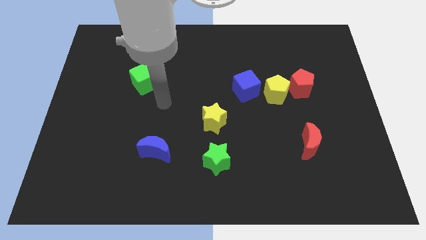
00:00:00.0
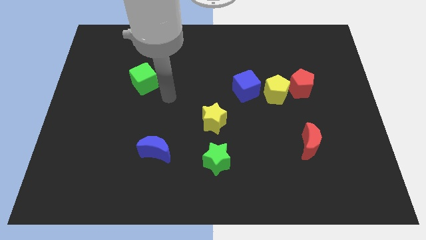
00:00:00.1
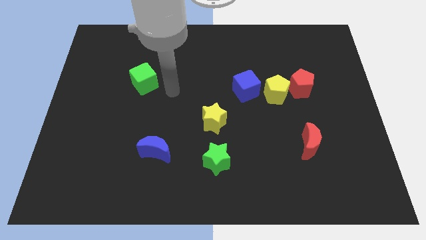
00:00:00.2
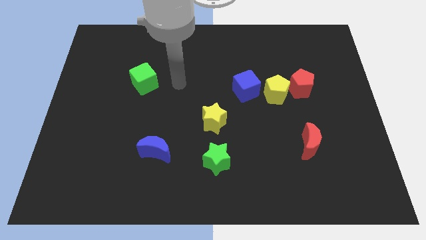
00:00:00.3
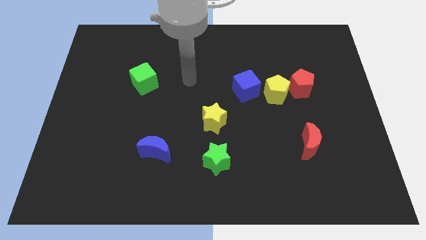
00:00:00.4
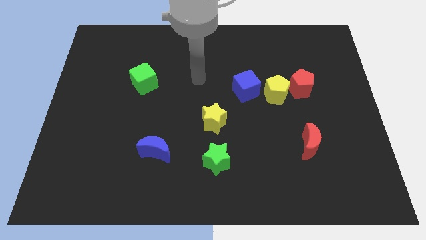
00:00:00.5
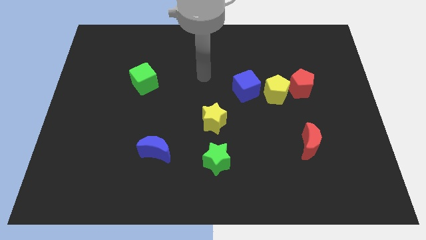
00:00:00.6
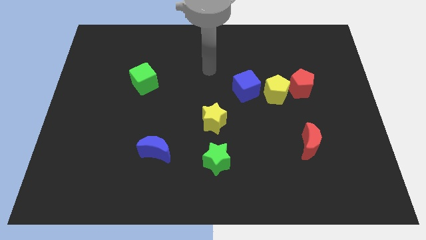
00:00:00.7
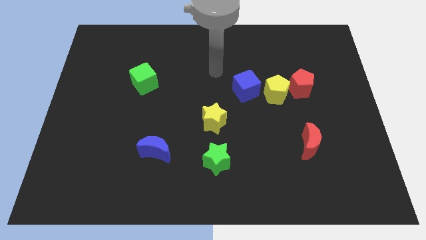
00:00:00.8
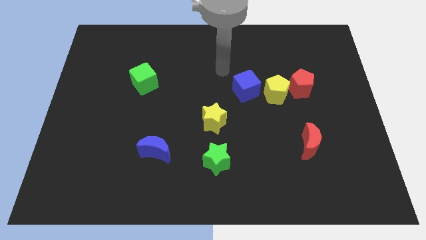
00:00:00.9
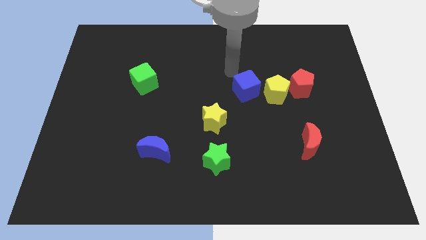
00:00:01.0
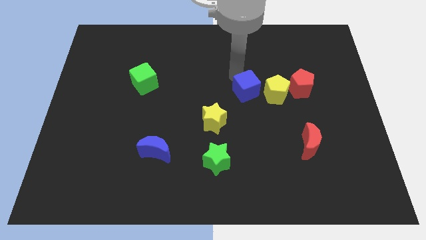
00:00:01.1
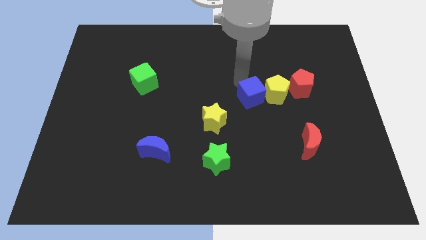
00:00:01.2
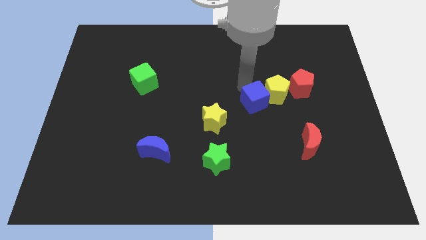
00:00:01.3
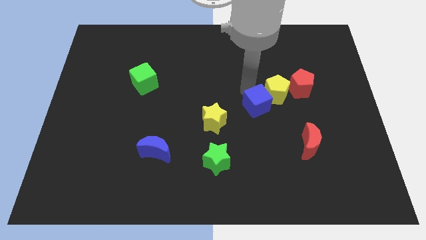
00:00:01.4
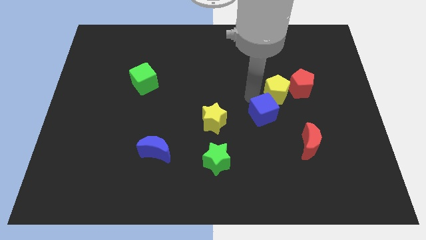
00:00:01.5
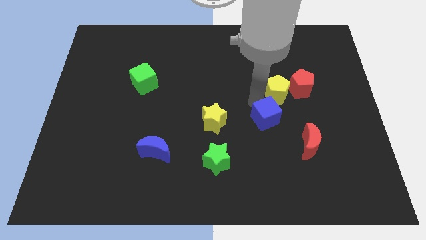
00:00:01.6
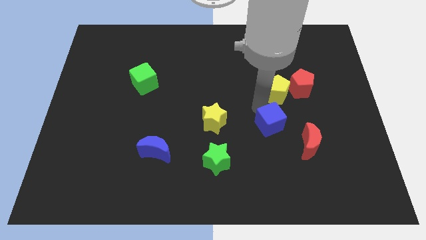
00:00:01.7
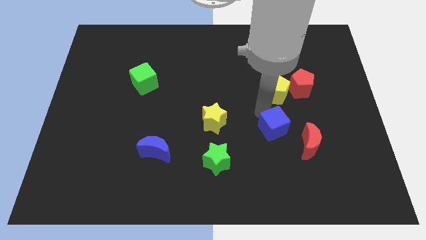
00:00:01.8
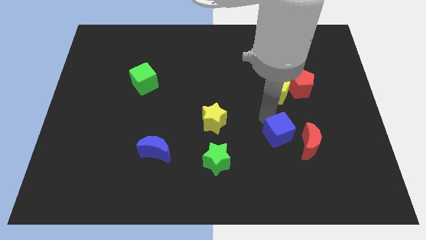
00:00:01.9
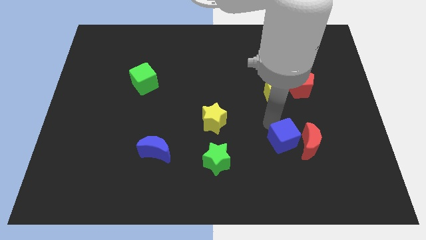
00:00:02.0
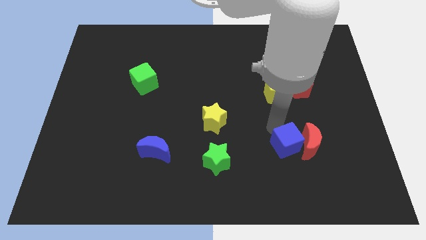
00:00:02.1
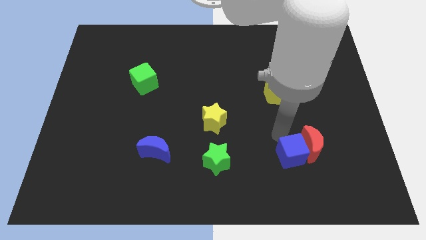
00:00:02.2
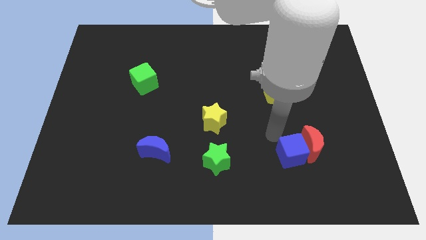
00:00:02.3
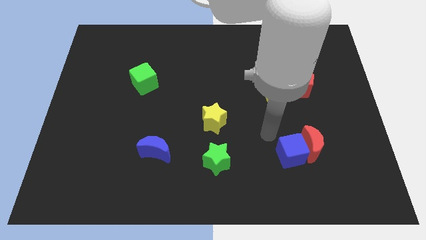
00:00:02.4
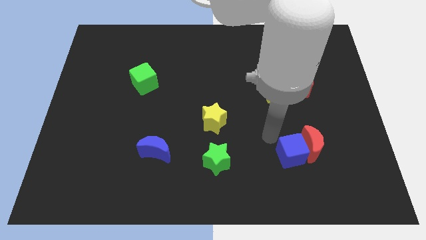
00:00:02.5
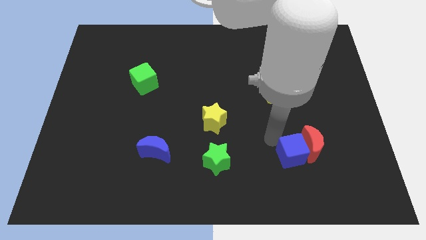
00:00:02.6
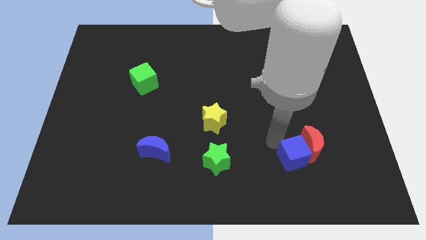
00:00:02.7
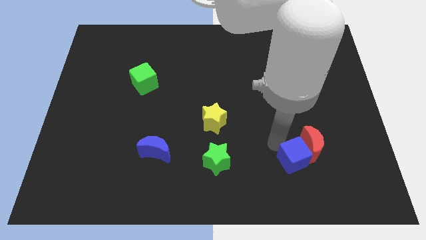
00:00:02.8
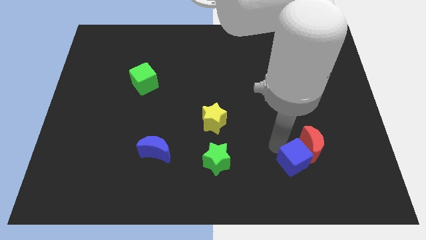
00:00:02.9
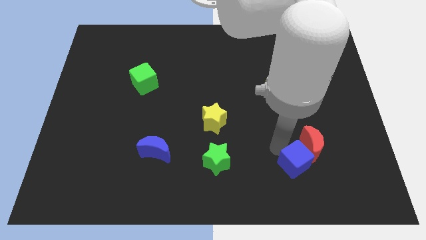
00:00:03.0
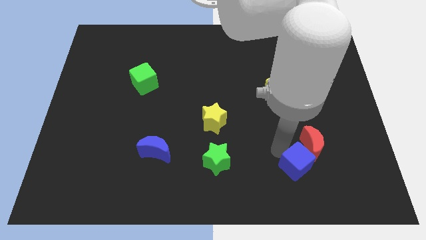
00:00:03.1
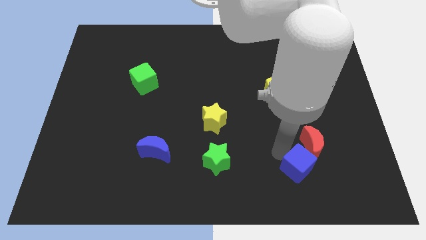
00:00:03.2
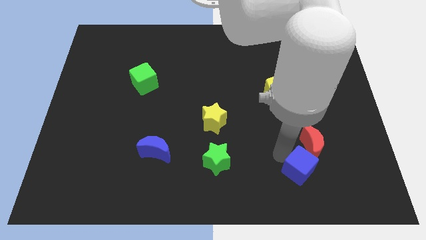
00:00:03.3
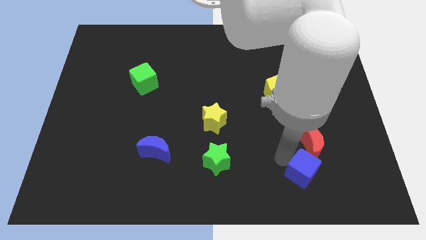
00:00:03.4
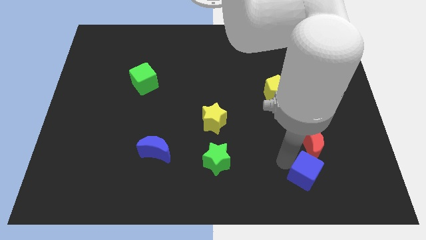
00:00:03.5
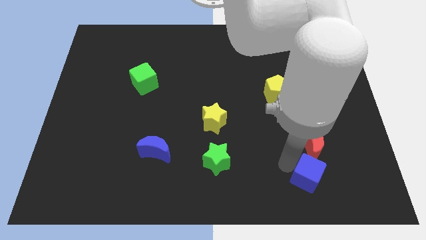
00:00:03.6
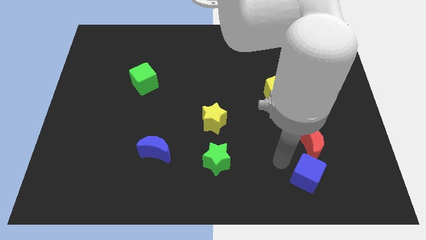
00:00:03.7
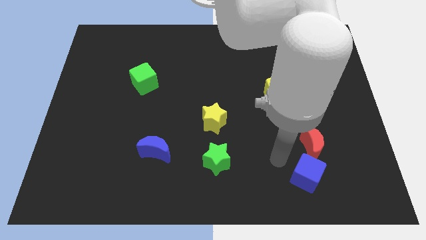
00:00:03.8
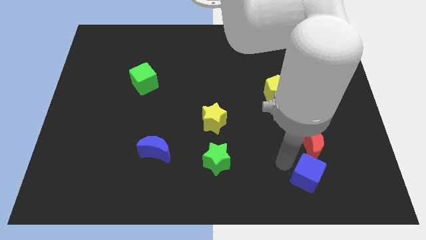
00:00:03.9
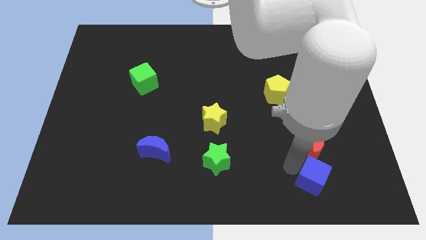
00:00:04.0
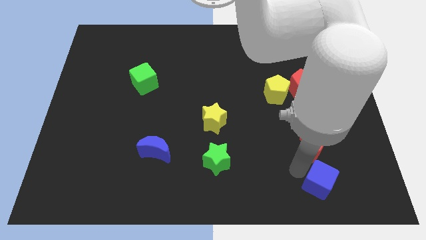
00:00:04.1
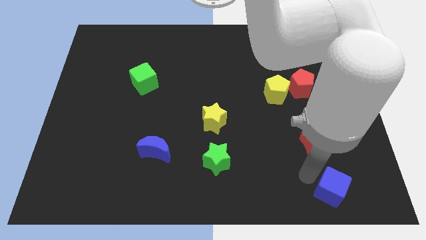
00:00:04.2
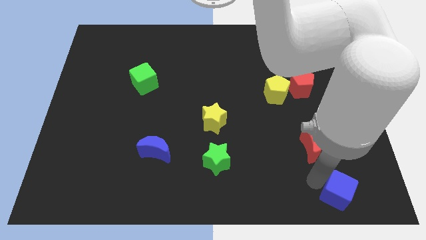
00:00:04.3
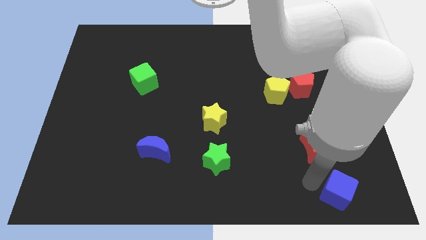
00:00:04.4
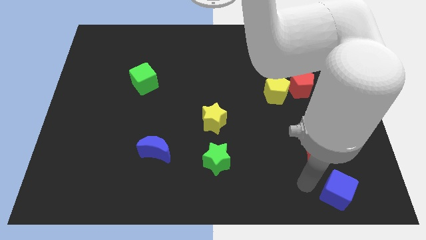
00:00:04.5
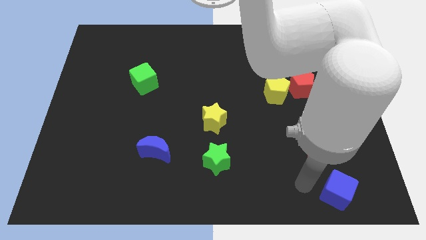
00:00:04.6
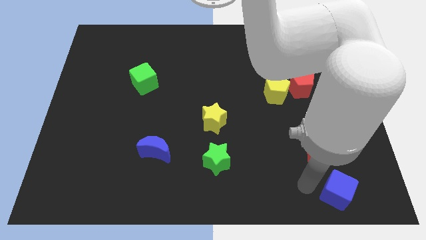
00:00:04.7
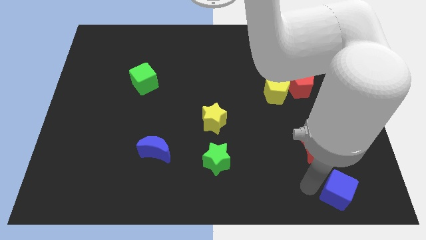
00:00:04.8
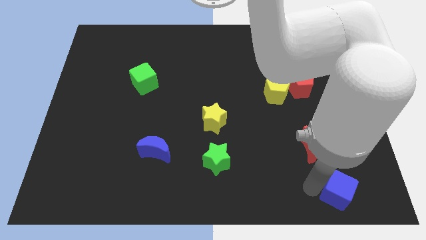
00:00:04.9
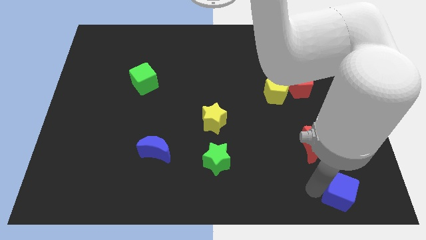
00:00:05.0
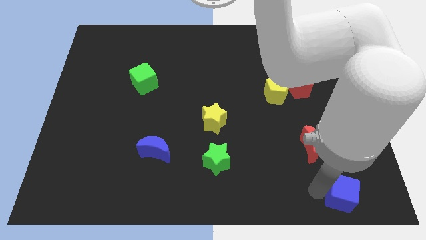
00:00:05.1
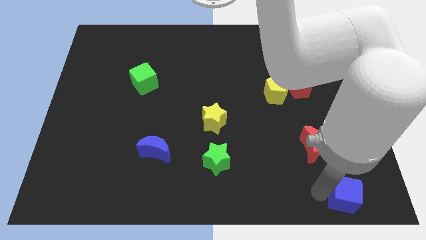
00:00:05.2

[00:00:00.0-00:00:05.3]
put the blue cube to the bottom right of the board

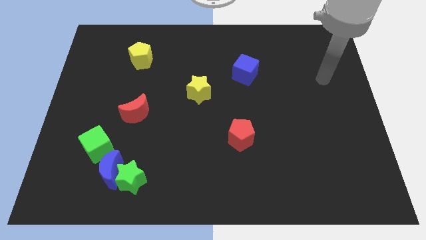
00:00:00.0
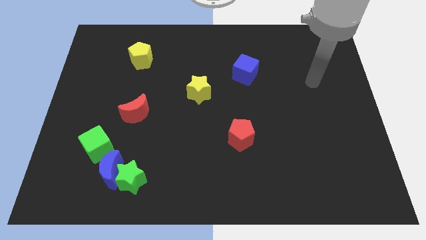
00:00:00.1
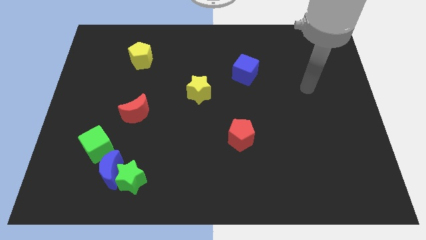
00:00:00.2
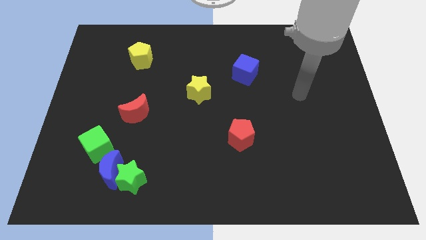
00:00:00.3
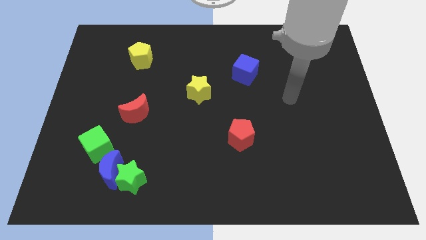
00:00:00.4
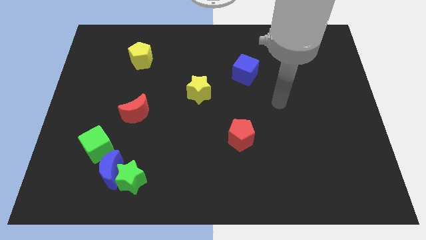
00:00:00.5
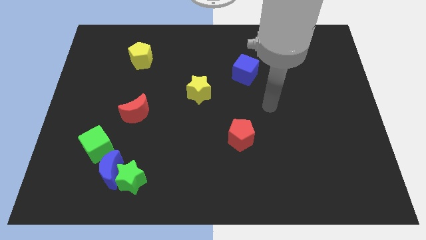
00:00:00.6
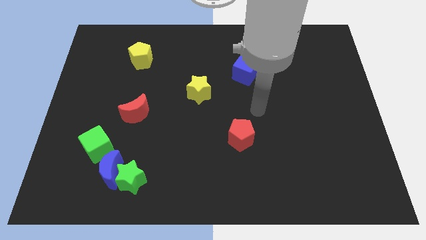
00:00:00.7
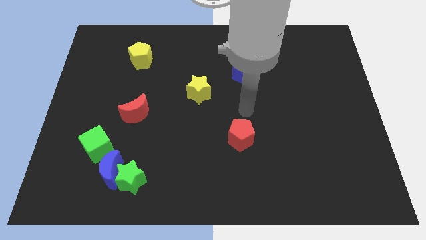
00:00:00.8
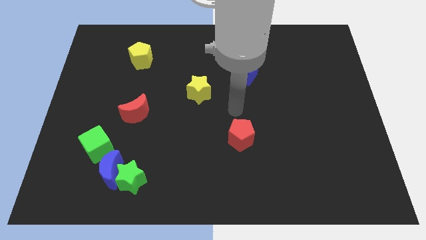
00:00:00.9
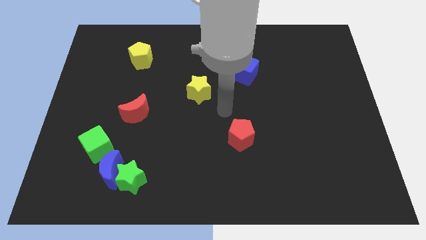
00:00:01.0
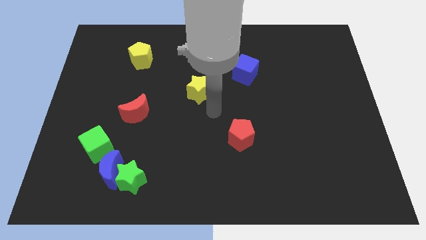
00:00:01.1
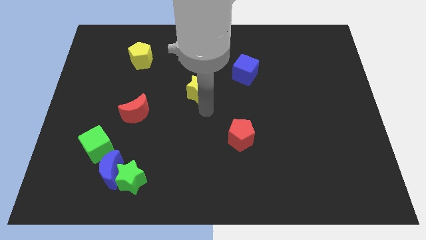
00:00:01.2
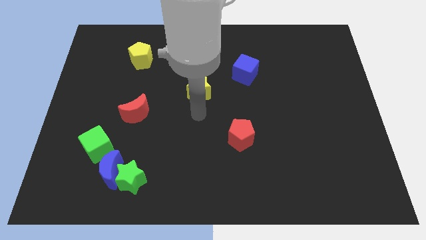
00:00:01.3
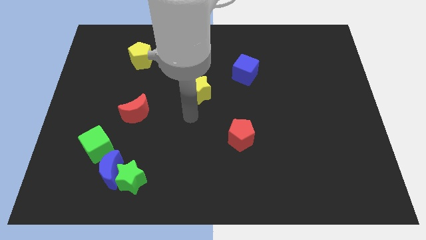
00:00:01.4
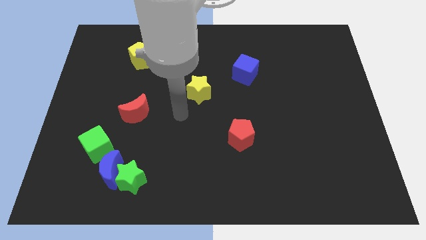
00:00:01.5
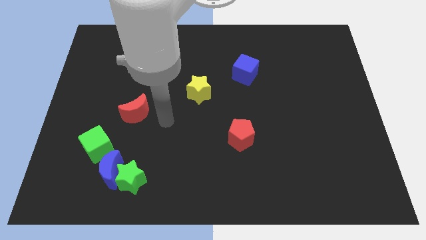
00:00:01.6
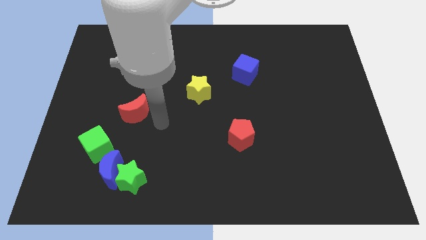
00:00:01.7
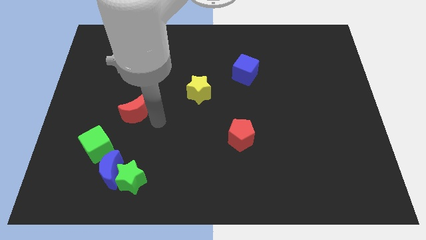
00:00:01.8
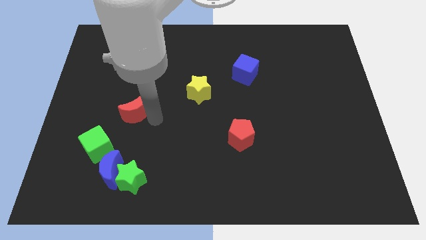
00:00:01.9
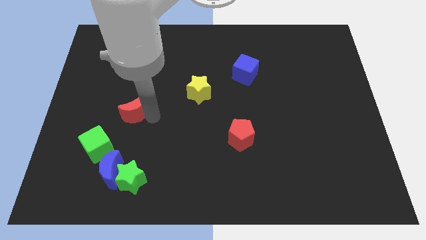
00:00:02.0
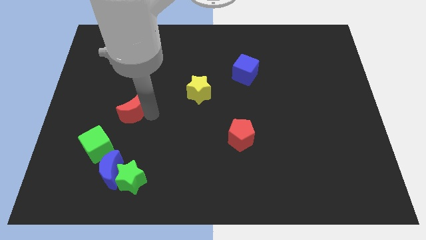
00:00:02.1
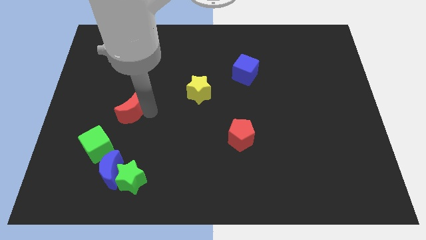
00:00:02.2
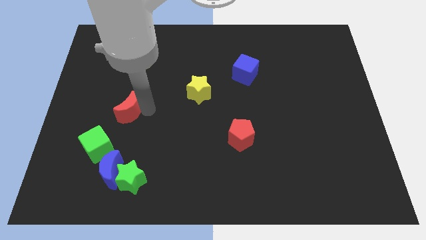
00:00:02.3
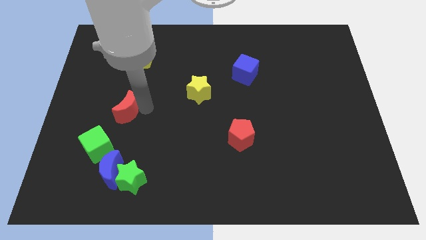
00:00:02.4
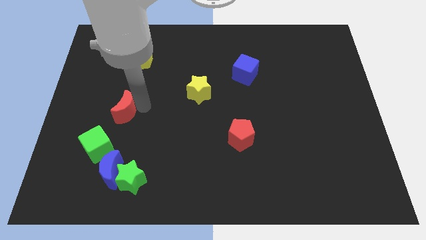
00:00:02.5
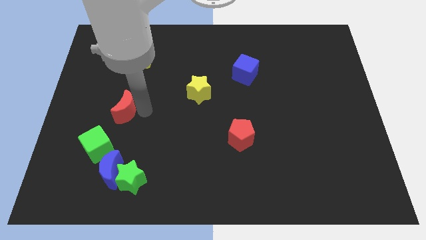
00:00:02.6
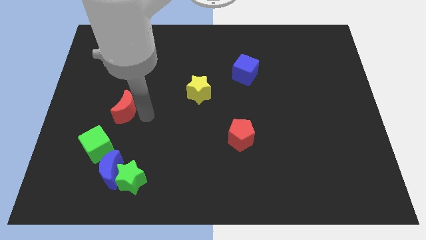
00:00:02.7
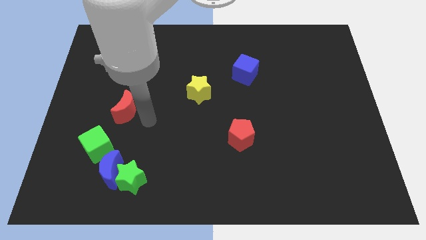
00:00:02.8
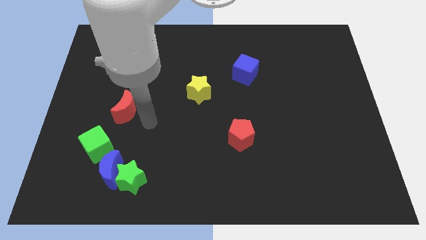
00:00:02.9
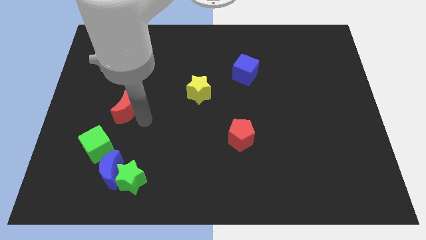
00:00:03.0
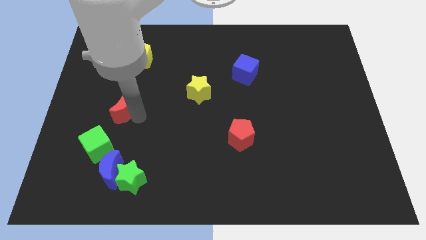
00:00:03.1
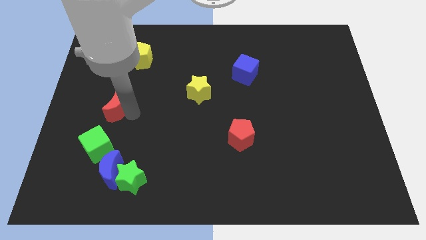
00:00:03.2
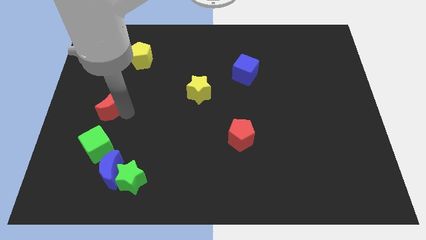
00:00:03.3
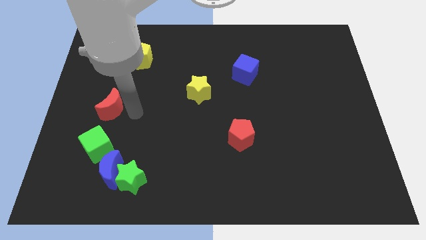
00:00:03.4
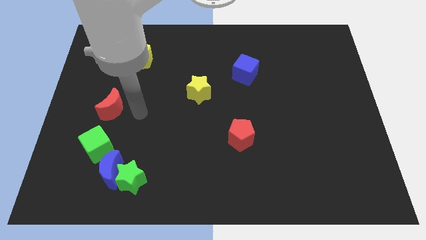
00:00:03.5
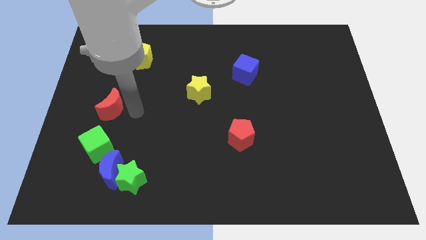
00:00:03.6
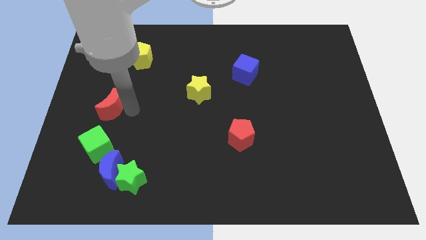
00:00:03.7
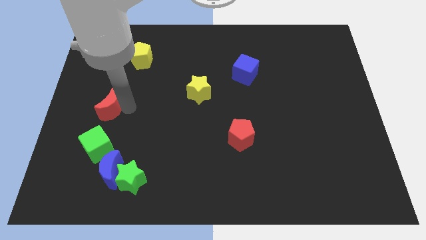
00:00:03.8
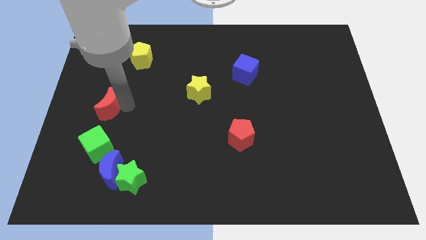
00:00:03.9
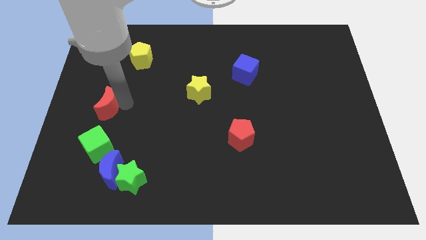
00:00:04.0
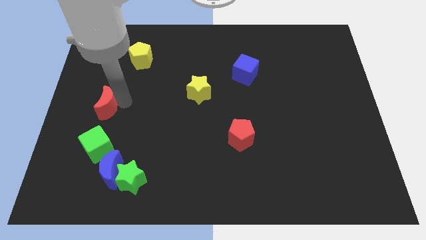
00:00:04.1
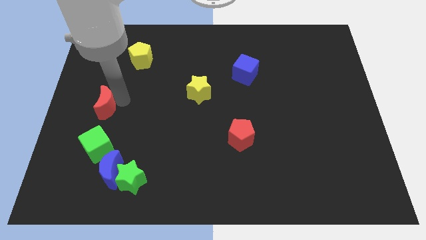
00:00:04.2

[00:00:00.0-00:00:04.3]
put the red moon to the left side of the board
